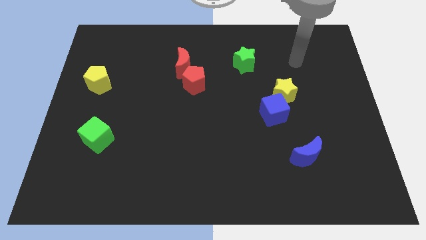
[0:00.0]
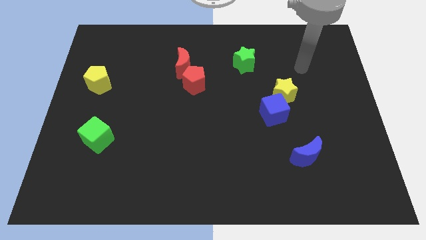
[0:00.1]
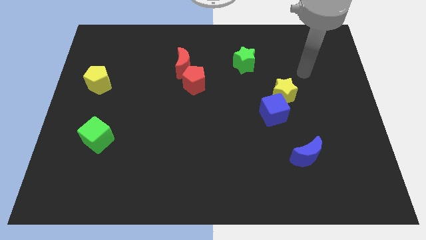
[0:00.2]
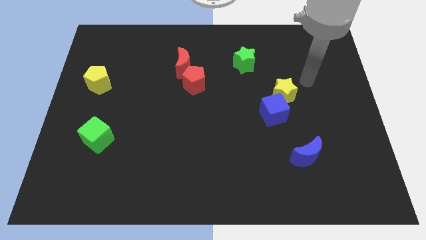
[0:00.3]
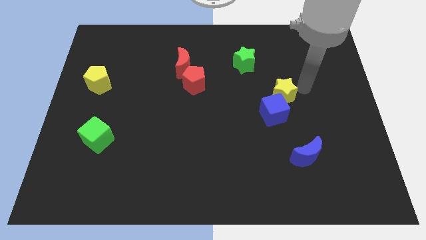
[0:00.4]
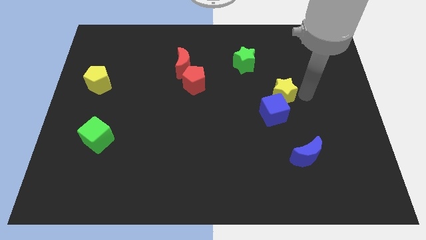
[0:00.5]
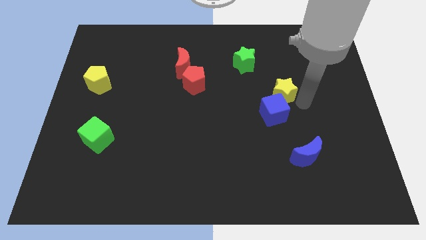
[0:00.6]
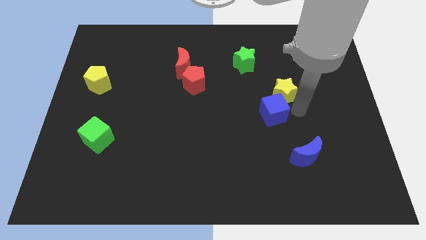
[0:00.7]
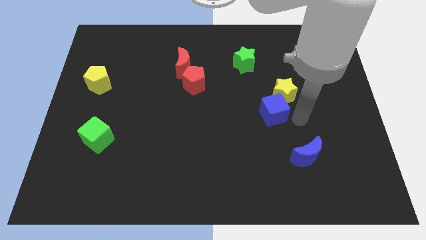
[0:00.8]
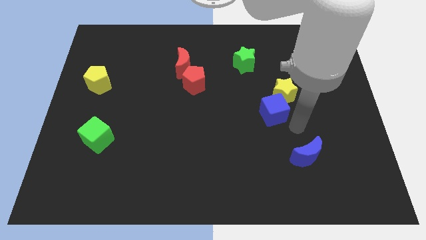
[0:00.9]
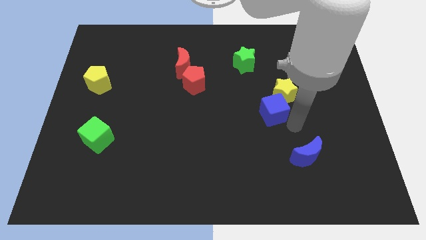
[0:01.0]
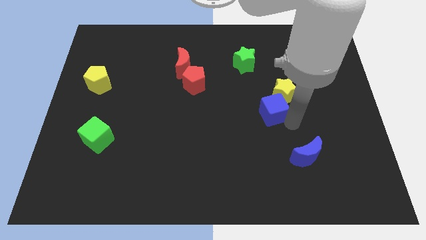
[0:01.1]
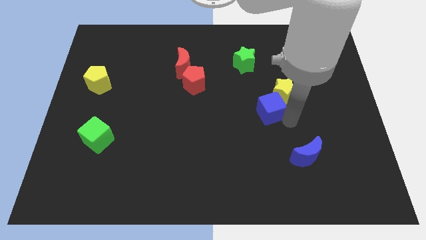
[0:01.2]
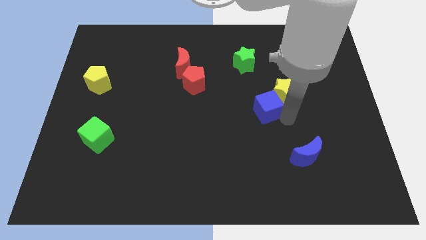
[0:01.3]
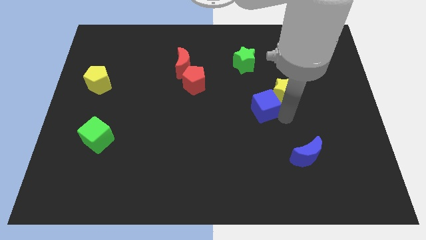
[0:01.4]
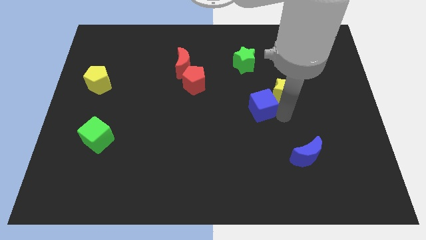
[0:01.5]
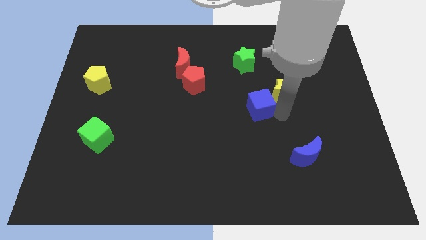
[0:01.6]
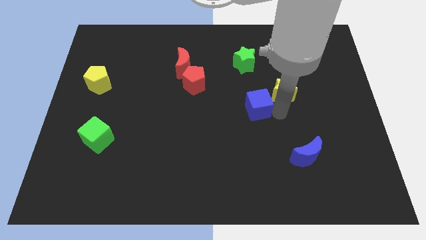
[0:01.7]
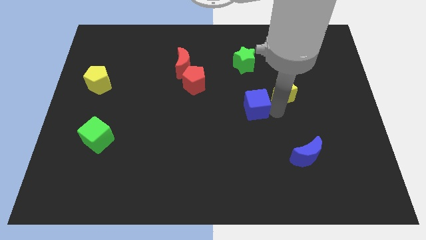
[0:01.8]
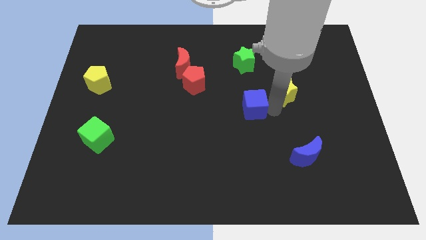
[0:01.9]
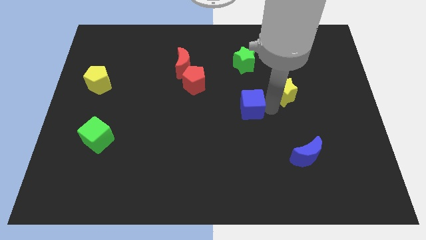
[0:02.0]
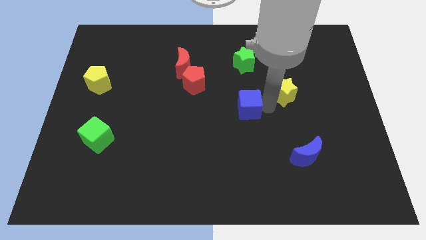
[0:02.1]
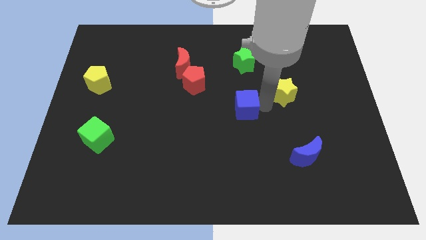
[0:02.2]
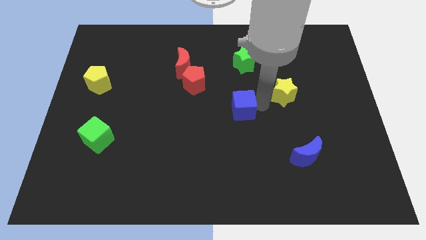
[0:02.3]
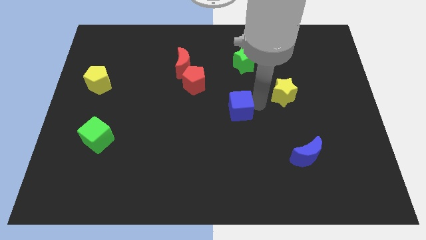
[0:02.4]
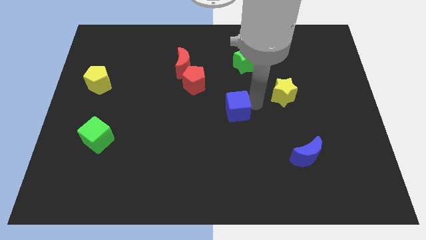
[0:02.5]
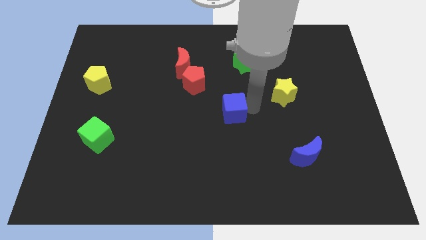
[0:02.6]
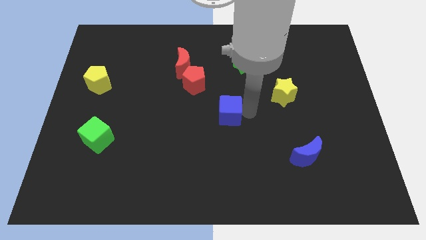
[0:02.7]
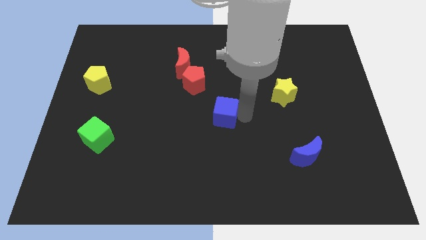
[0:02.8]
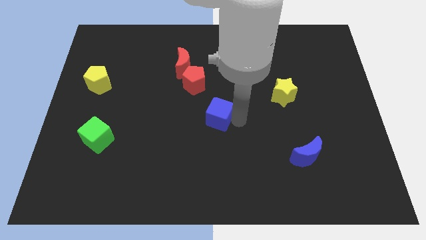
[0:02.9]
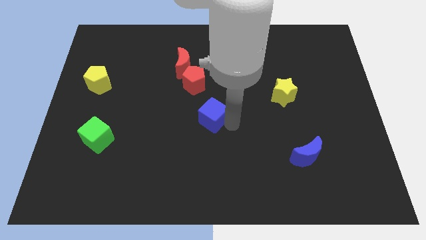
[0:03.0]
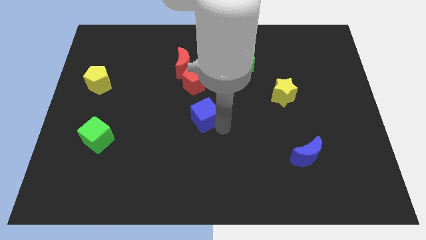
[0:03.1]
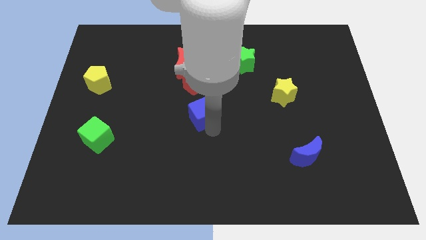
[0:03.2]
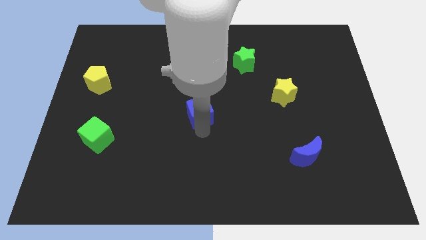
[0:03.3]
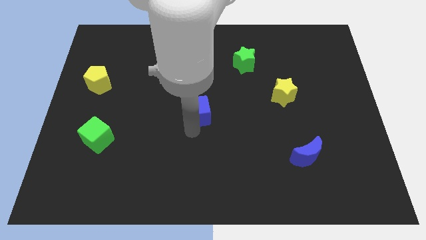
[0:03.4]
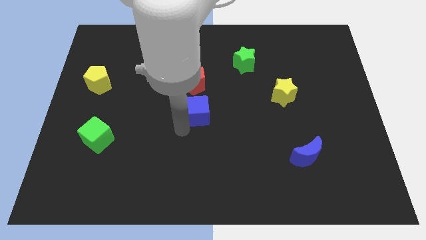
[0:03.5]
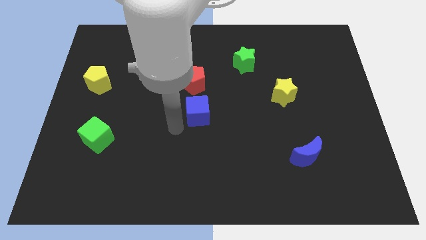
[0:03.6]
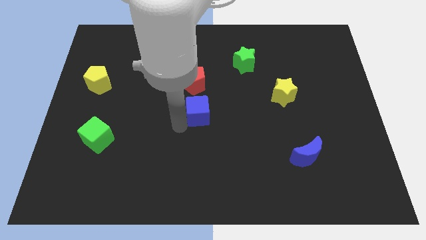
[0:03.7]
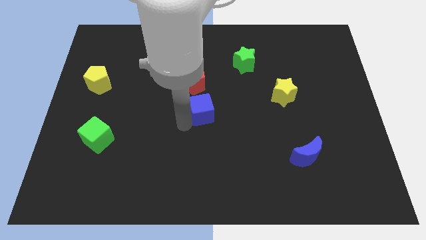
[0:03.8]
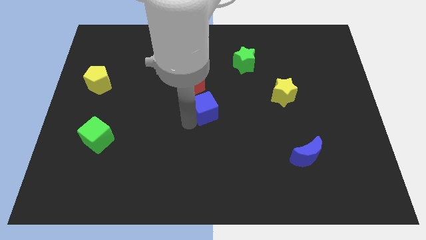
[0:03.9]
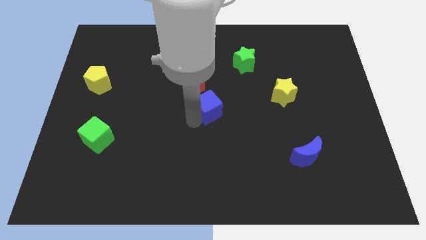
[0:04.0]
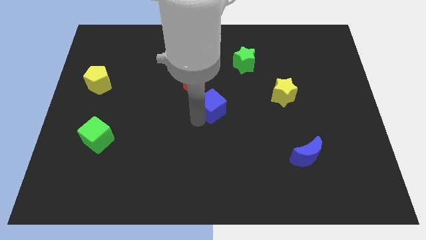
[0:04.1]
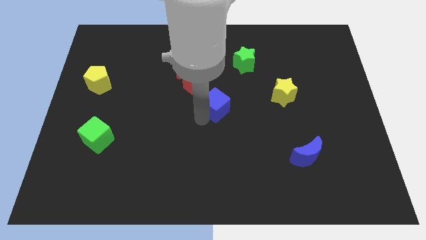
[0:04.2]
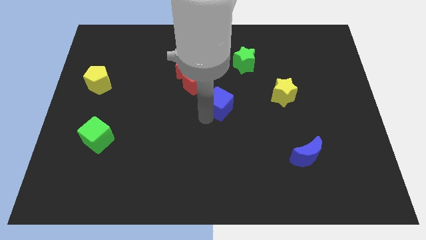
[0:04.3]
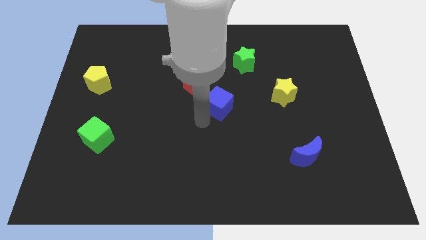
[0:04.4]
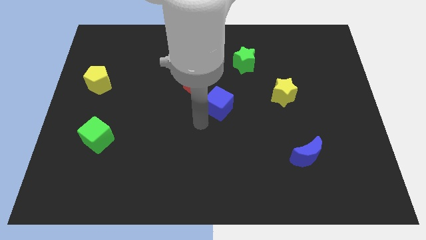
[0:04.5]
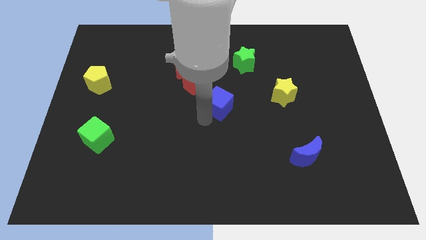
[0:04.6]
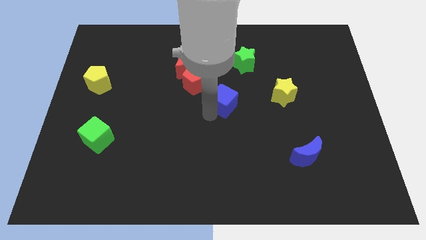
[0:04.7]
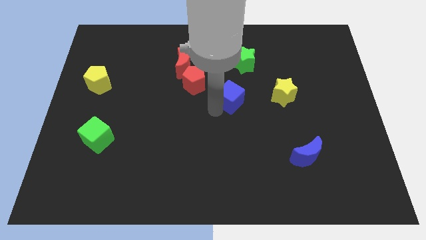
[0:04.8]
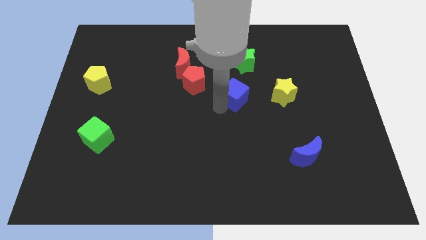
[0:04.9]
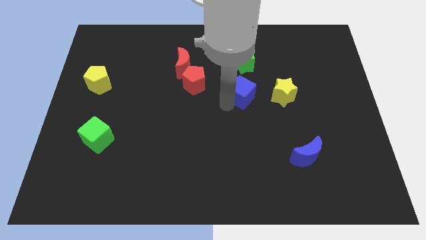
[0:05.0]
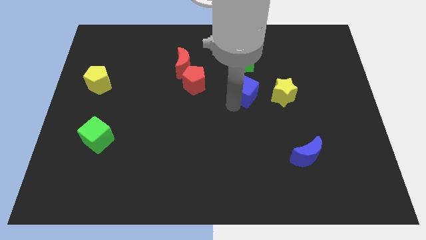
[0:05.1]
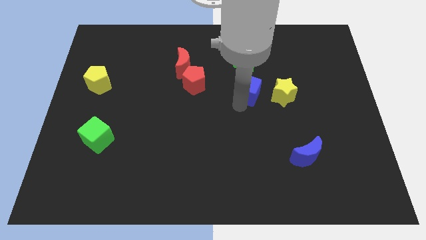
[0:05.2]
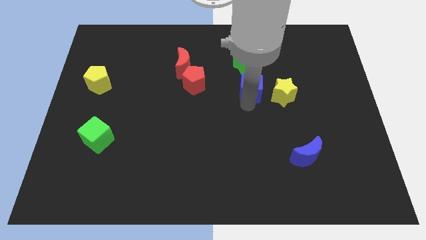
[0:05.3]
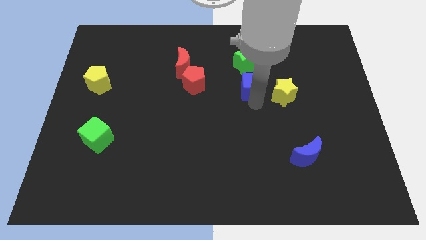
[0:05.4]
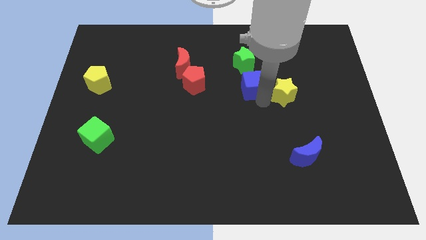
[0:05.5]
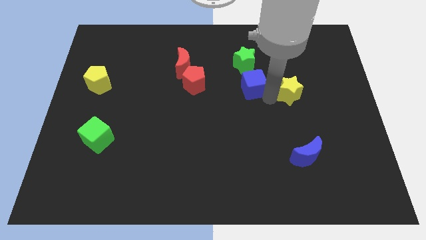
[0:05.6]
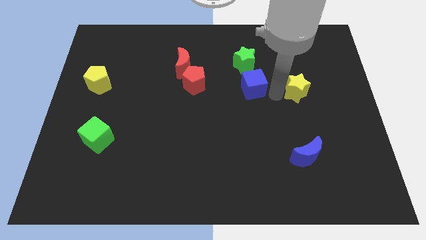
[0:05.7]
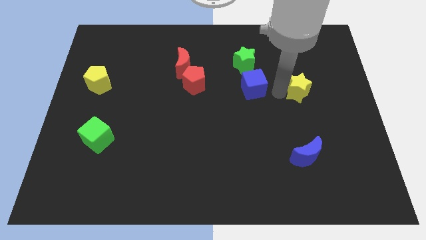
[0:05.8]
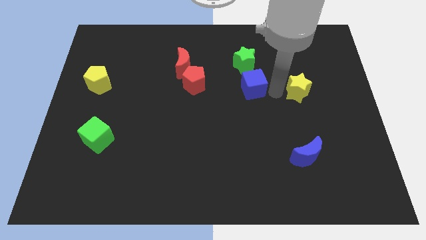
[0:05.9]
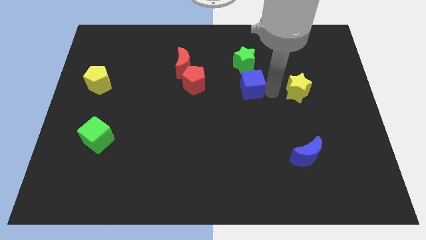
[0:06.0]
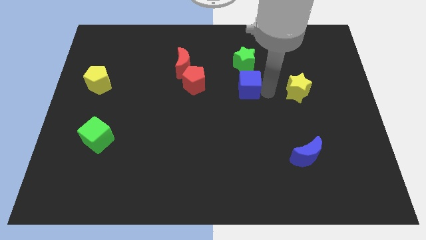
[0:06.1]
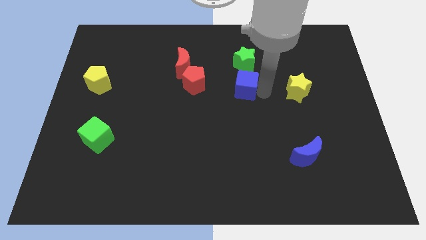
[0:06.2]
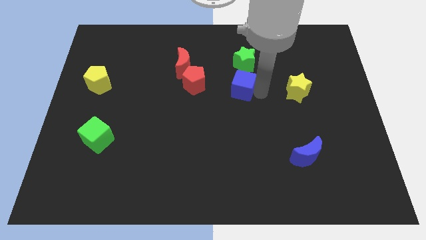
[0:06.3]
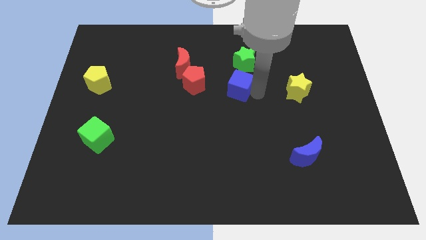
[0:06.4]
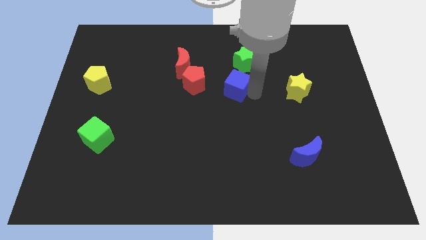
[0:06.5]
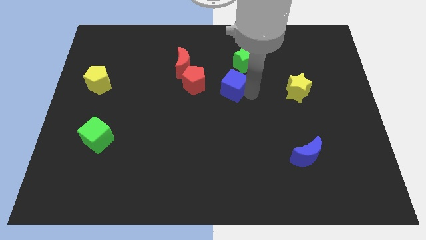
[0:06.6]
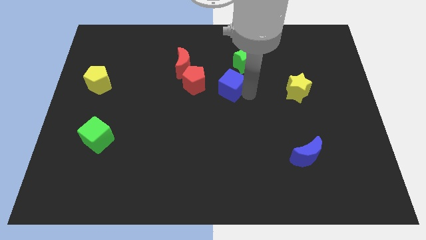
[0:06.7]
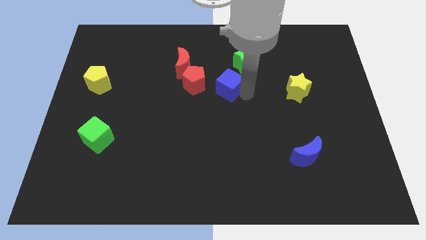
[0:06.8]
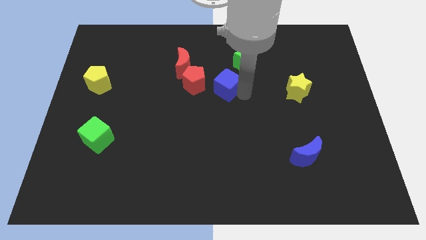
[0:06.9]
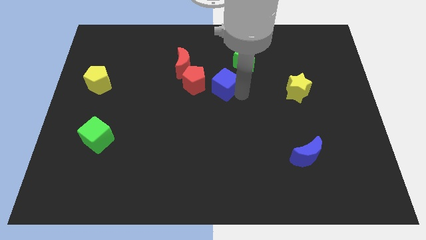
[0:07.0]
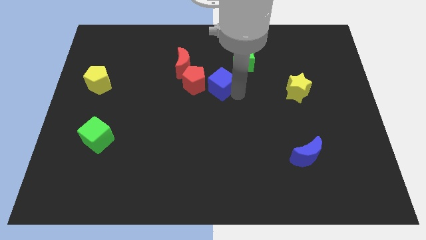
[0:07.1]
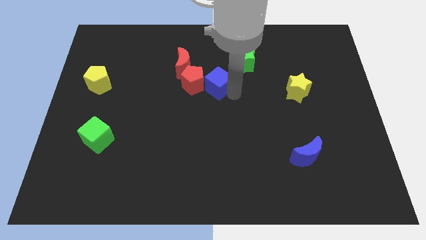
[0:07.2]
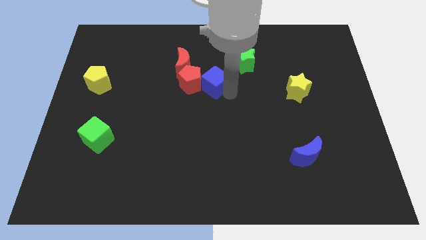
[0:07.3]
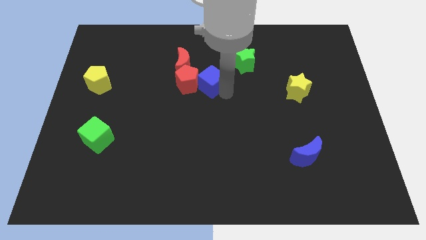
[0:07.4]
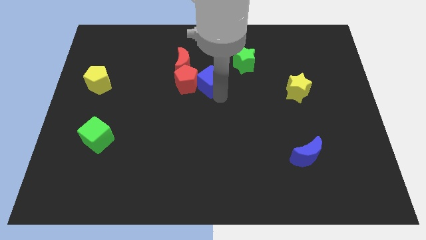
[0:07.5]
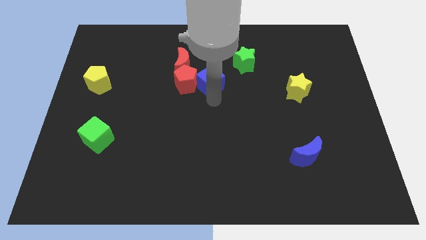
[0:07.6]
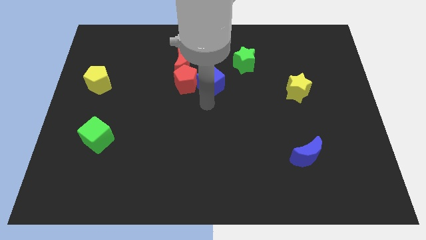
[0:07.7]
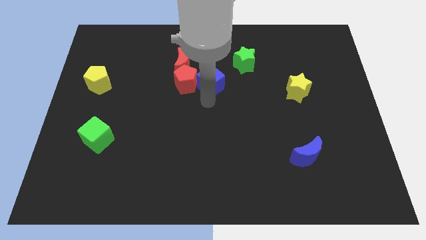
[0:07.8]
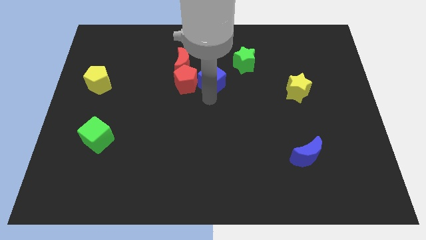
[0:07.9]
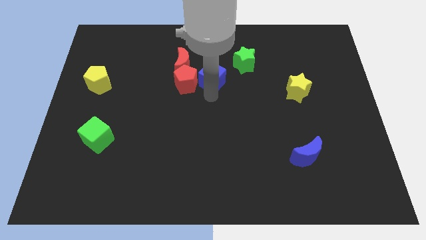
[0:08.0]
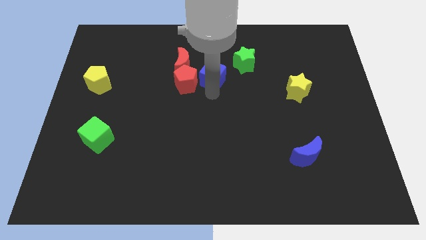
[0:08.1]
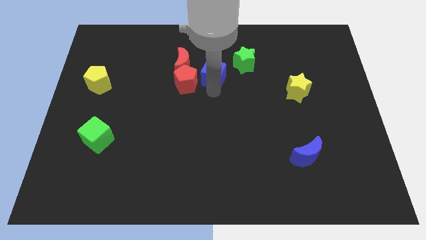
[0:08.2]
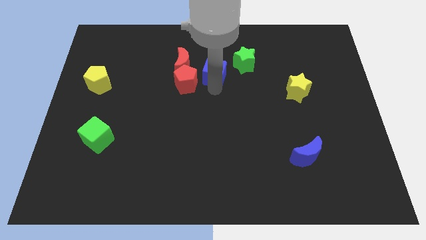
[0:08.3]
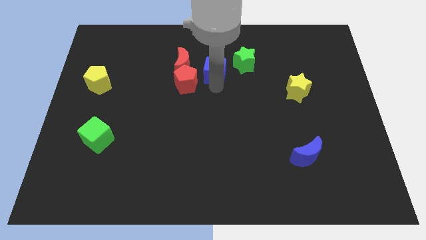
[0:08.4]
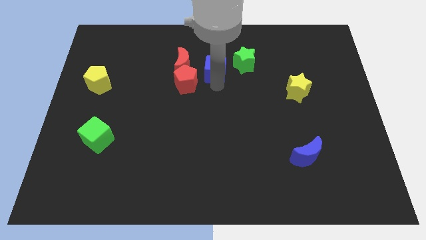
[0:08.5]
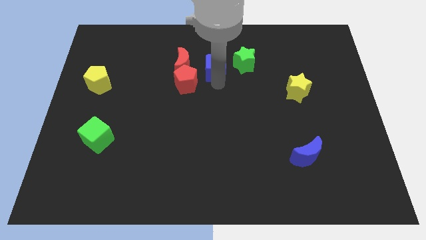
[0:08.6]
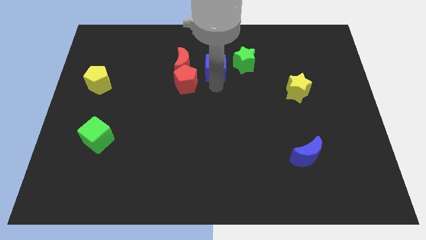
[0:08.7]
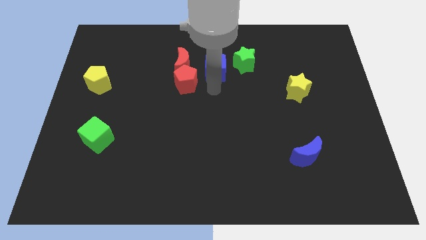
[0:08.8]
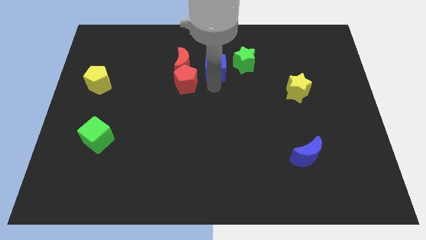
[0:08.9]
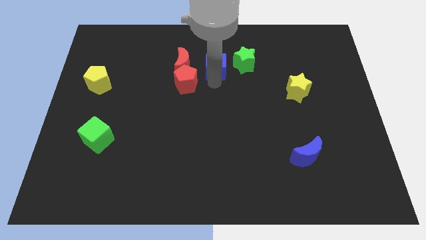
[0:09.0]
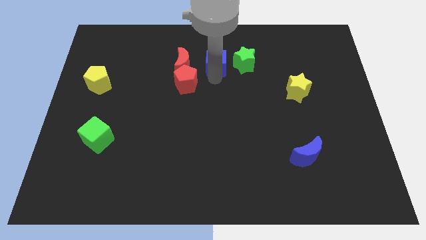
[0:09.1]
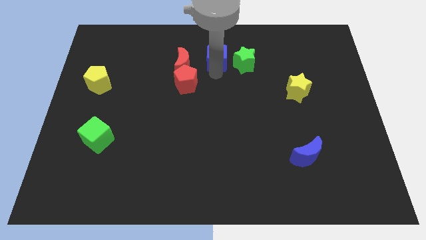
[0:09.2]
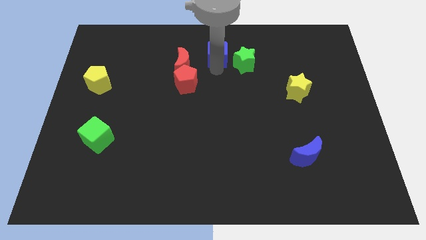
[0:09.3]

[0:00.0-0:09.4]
push the blue cube to the top
